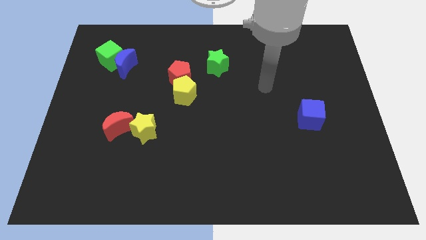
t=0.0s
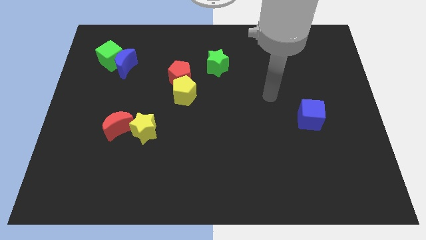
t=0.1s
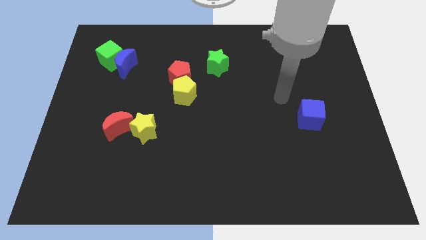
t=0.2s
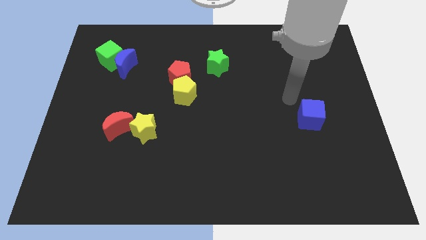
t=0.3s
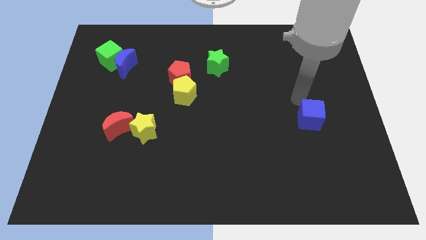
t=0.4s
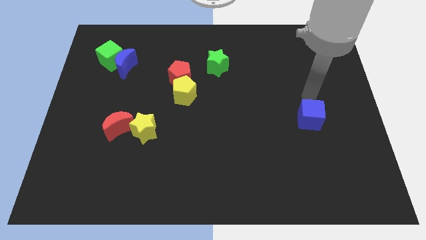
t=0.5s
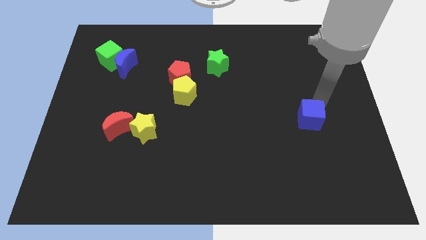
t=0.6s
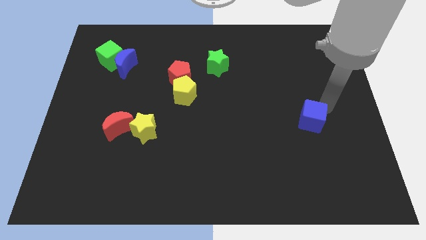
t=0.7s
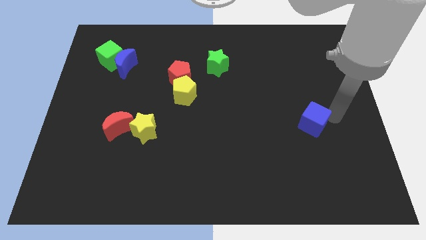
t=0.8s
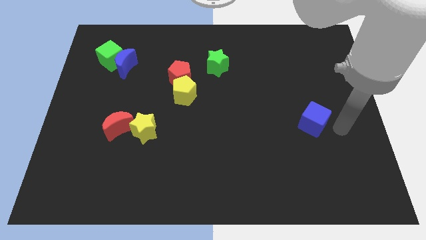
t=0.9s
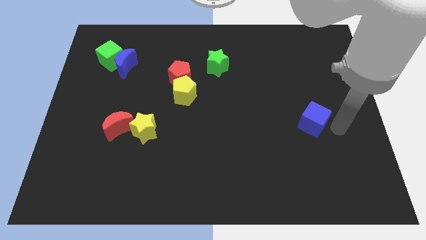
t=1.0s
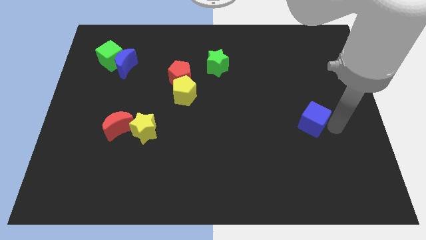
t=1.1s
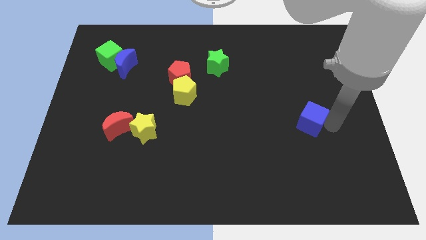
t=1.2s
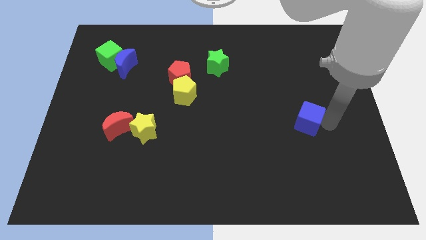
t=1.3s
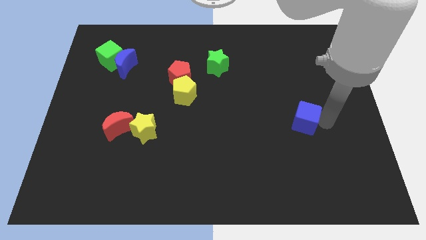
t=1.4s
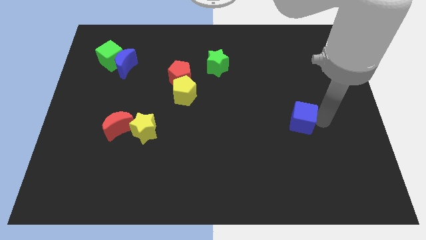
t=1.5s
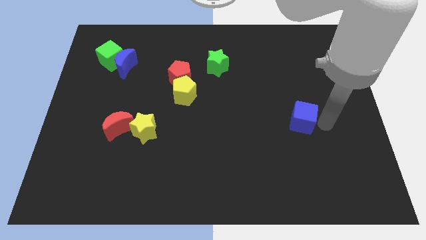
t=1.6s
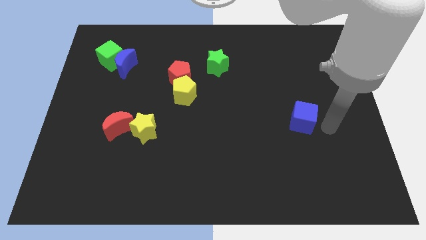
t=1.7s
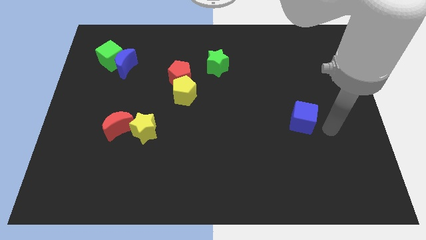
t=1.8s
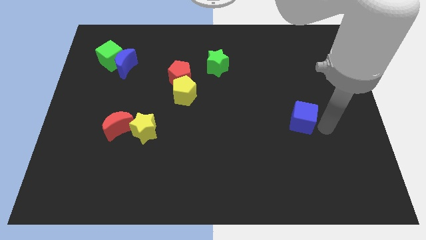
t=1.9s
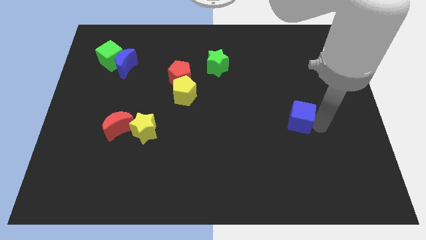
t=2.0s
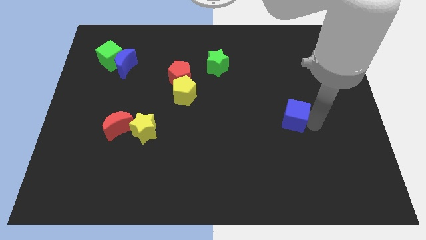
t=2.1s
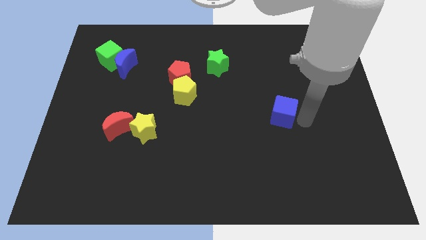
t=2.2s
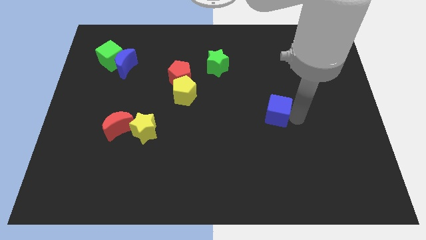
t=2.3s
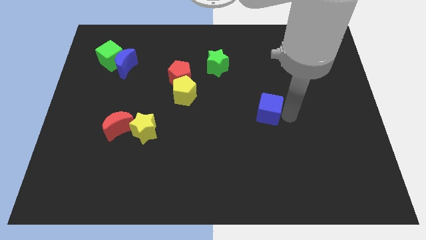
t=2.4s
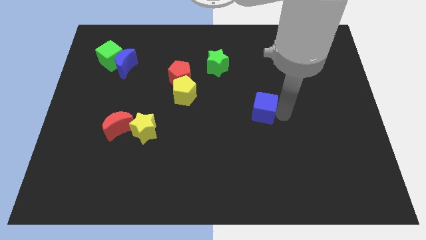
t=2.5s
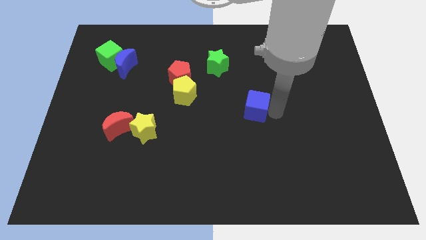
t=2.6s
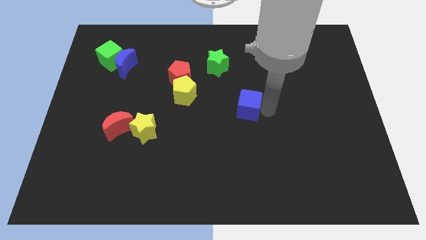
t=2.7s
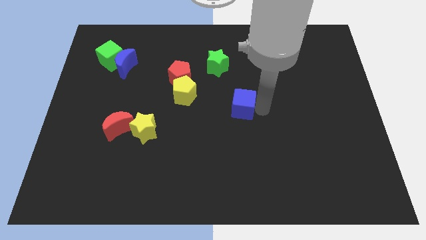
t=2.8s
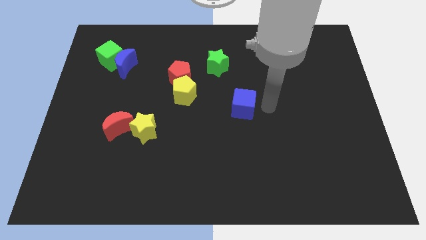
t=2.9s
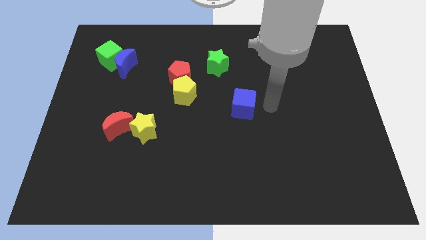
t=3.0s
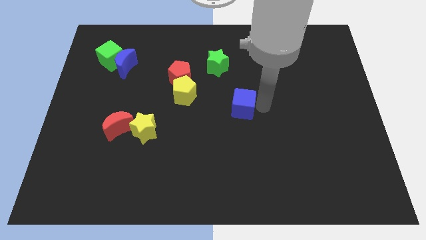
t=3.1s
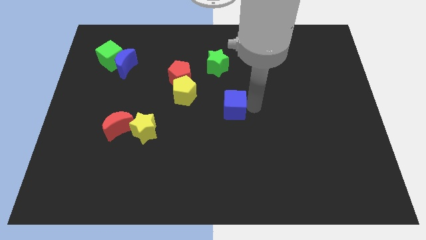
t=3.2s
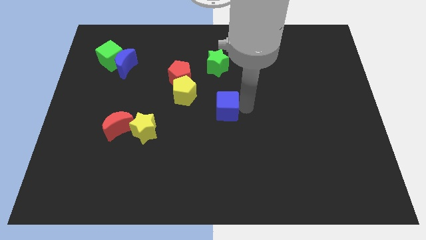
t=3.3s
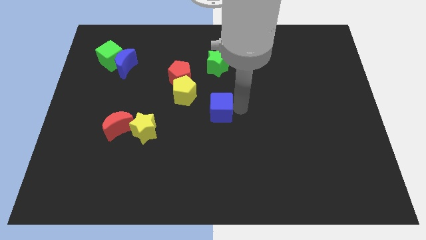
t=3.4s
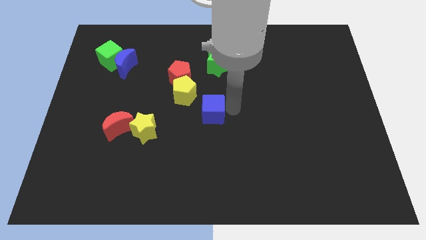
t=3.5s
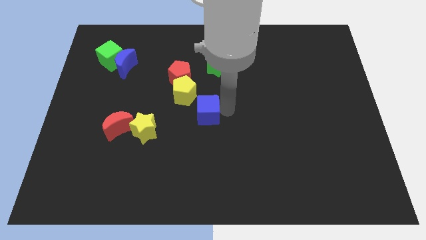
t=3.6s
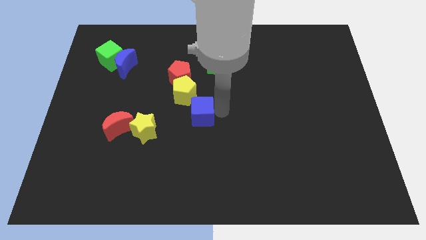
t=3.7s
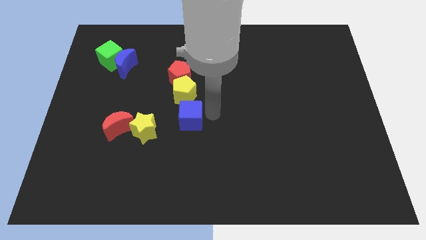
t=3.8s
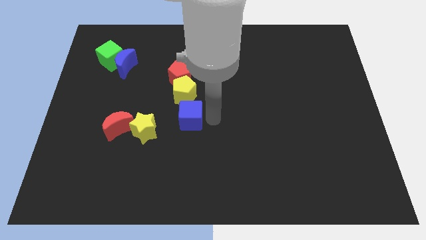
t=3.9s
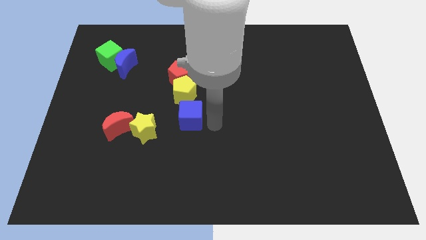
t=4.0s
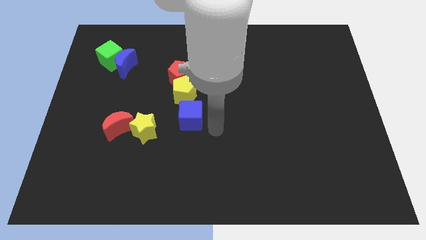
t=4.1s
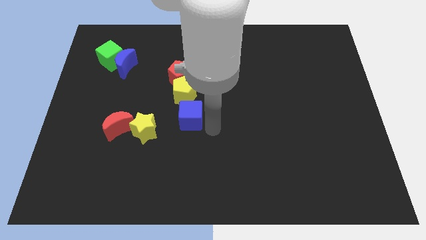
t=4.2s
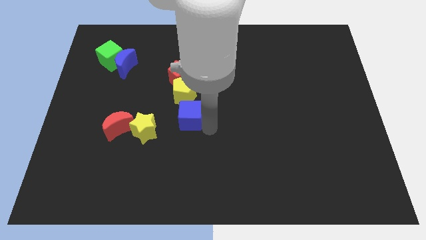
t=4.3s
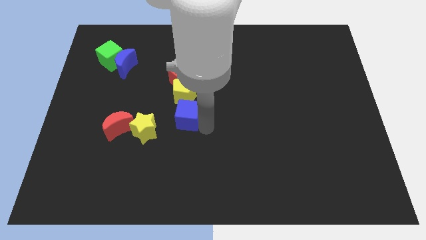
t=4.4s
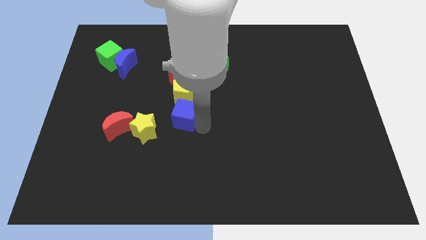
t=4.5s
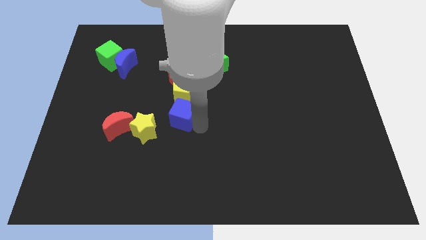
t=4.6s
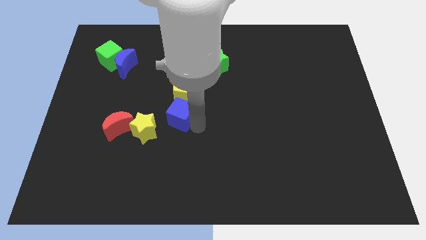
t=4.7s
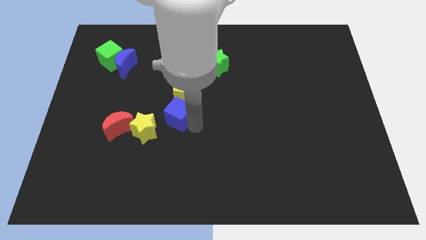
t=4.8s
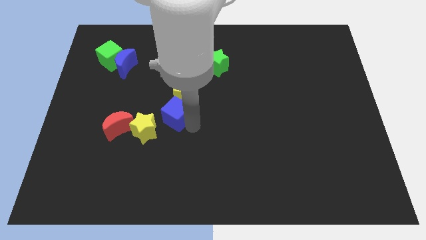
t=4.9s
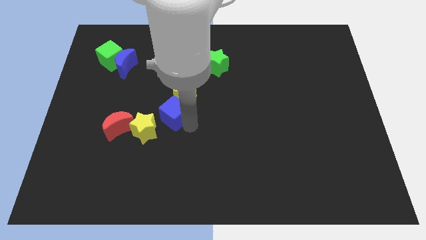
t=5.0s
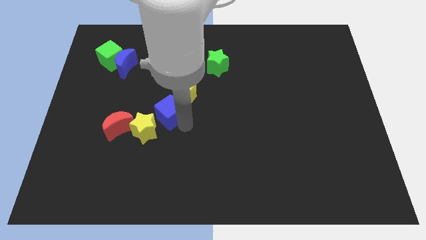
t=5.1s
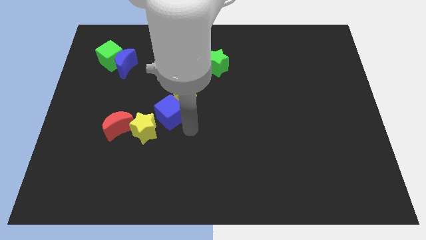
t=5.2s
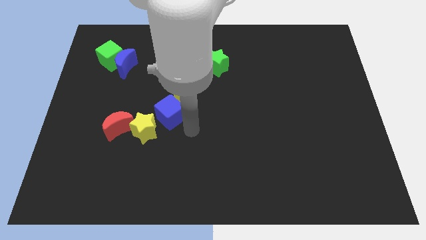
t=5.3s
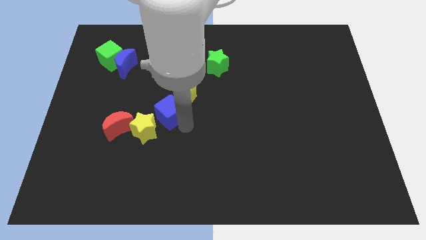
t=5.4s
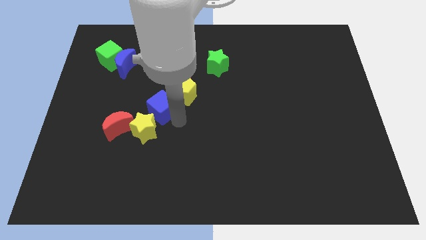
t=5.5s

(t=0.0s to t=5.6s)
slide the blue cube to the left side of the yellow pentagon

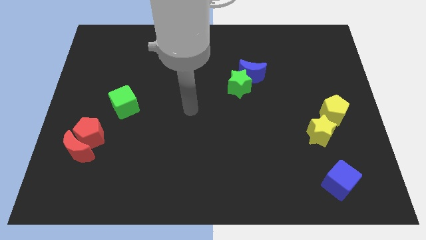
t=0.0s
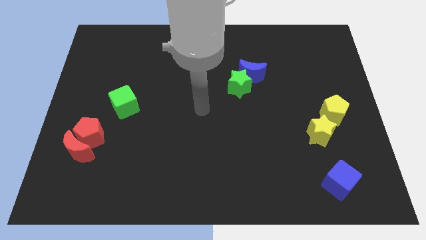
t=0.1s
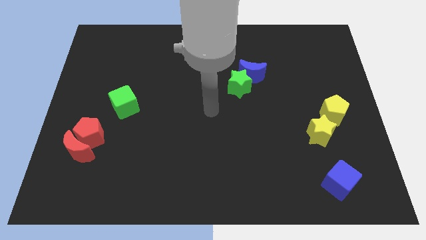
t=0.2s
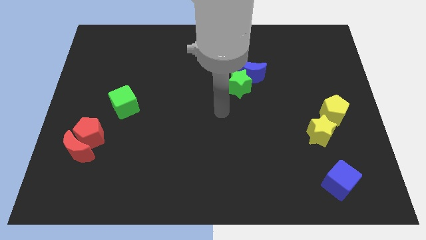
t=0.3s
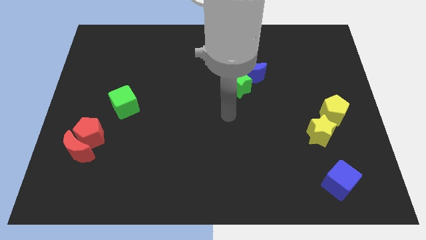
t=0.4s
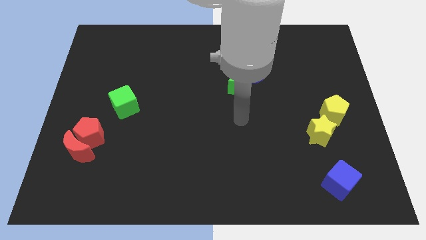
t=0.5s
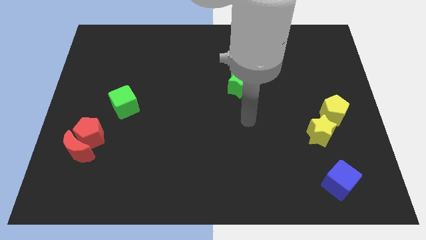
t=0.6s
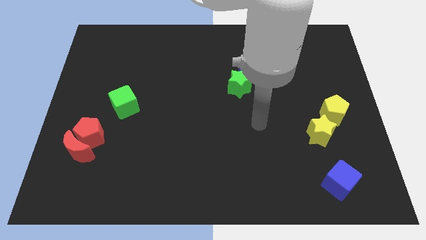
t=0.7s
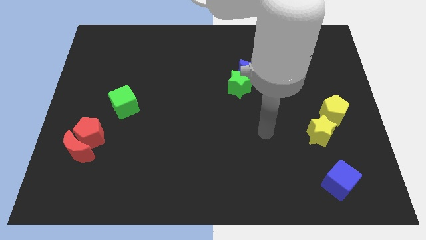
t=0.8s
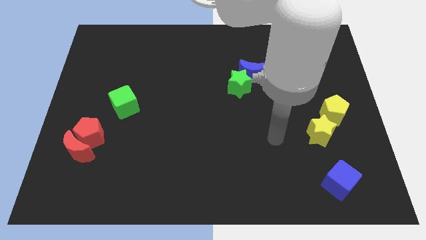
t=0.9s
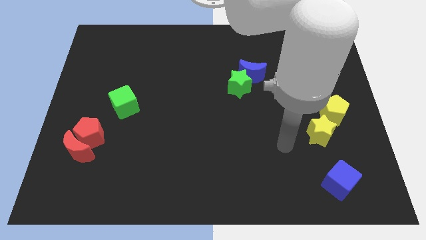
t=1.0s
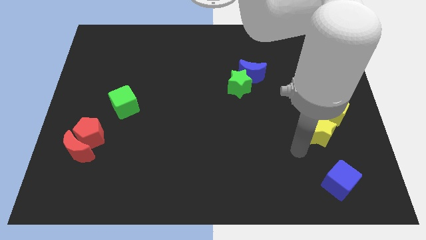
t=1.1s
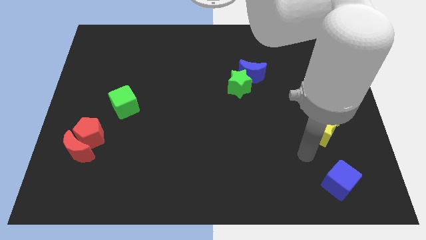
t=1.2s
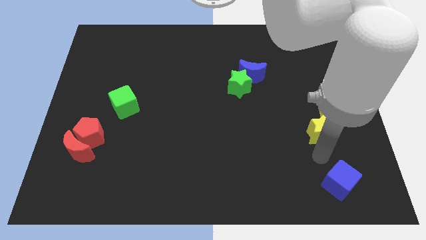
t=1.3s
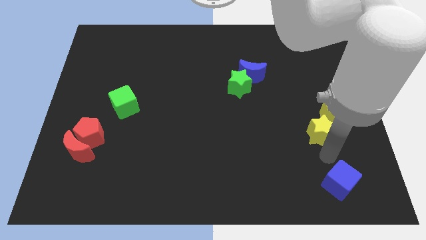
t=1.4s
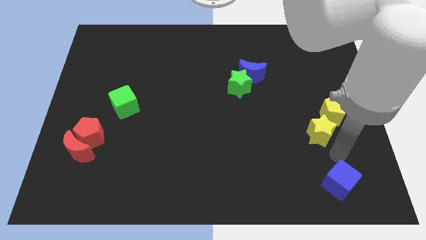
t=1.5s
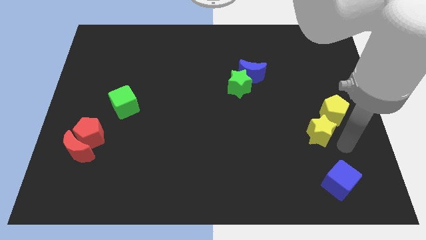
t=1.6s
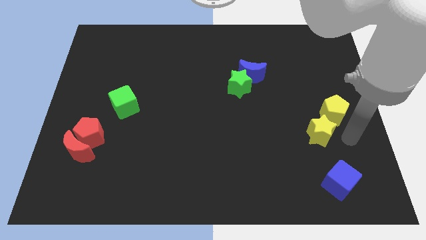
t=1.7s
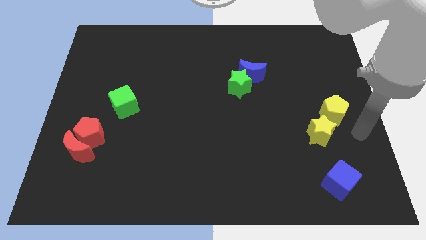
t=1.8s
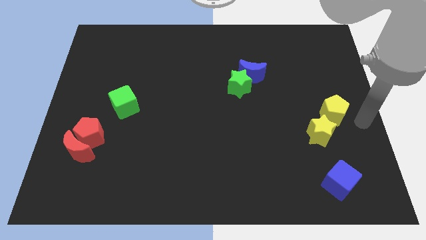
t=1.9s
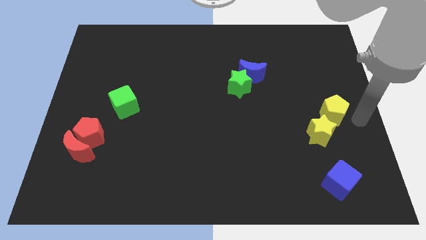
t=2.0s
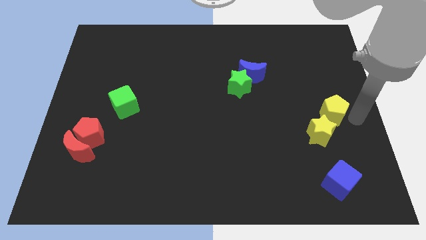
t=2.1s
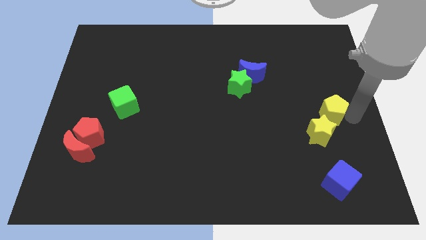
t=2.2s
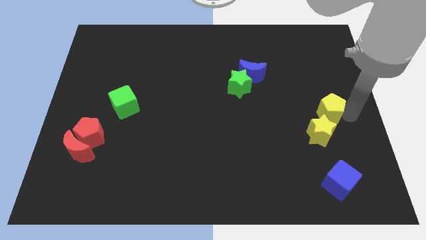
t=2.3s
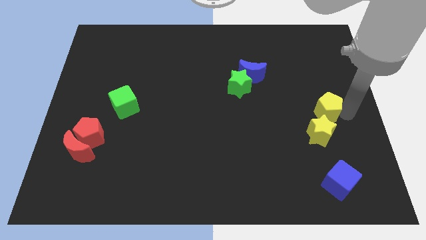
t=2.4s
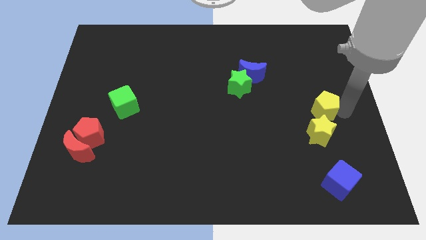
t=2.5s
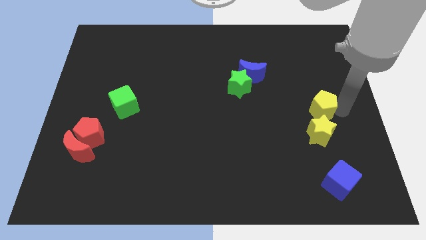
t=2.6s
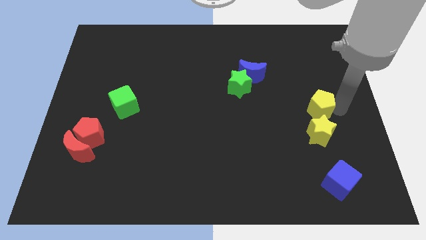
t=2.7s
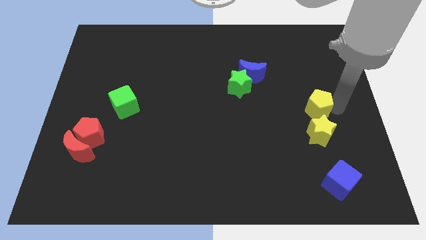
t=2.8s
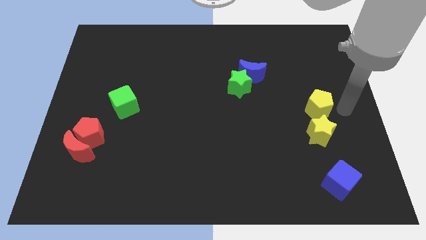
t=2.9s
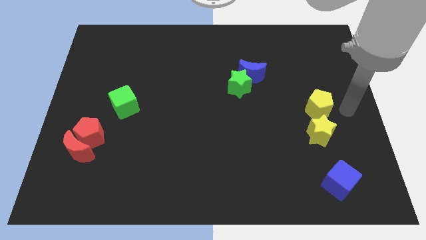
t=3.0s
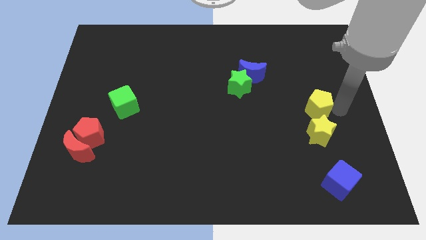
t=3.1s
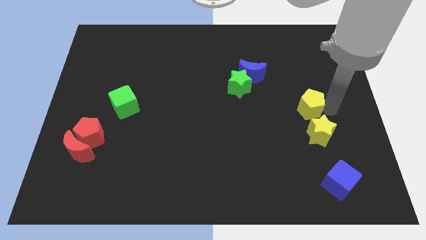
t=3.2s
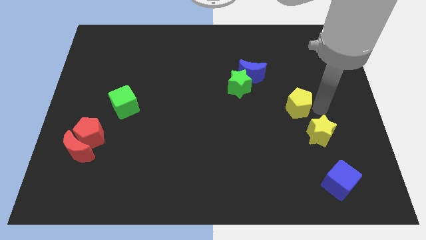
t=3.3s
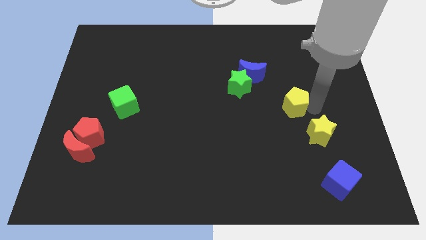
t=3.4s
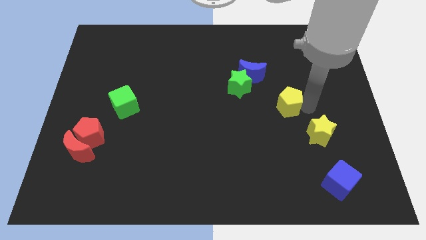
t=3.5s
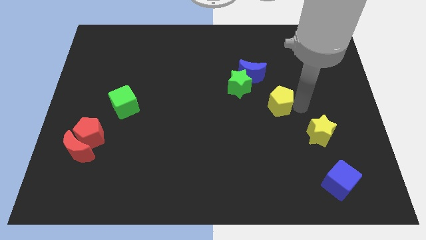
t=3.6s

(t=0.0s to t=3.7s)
slide the yellow pentagon diagonally down and to the right of the green star
